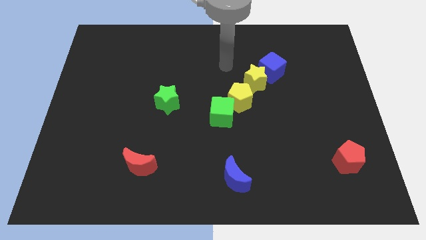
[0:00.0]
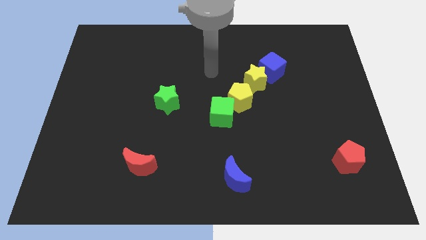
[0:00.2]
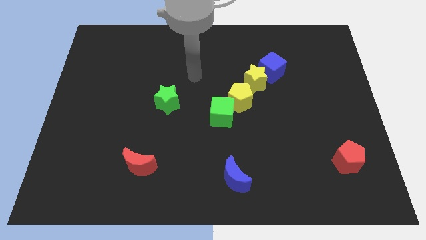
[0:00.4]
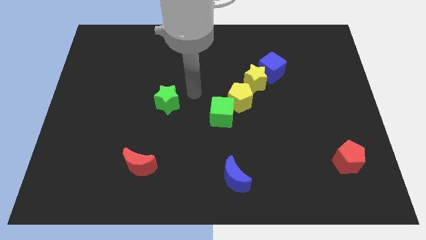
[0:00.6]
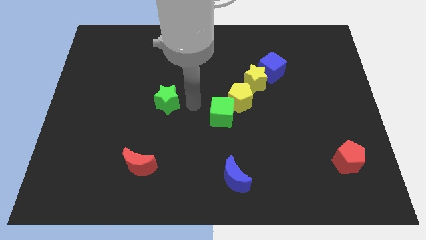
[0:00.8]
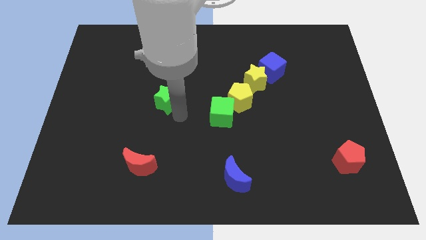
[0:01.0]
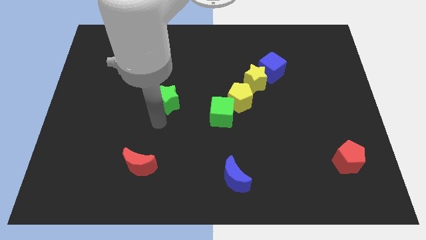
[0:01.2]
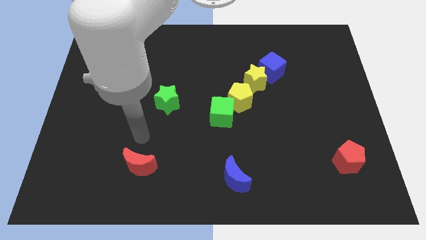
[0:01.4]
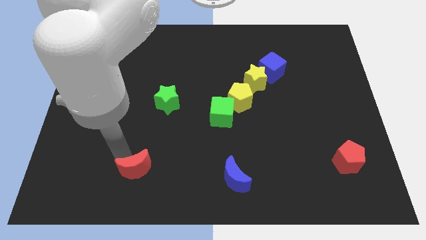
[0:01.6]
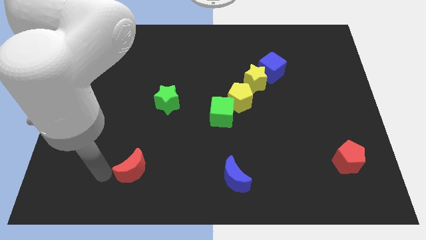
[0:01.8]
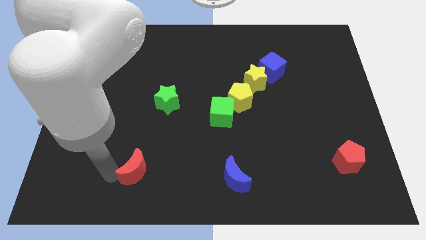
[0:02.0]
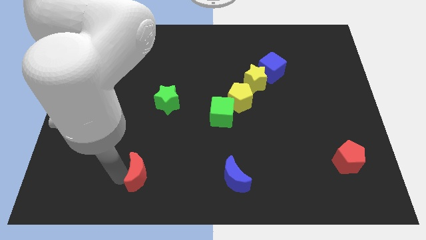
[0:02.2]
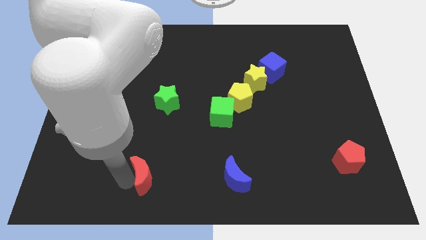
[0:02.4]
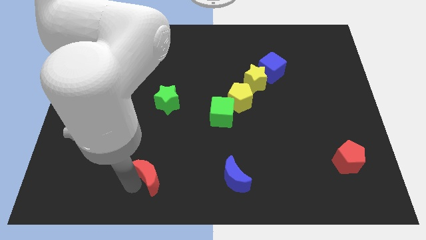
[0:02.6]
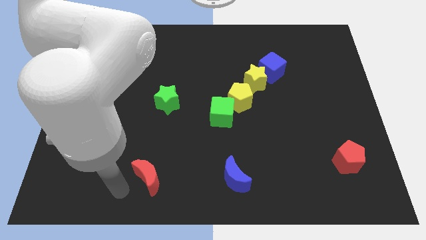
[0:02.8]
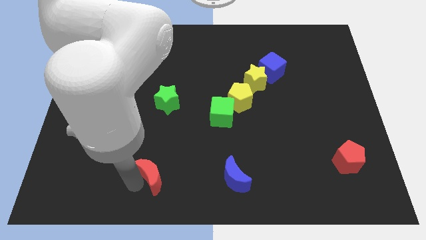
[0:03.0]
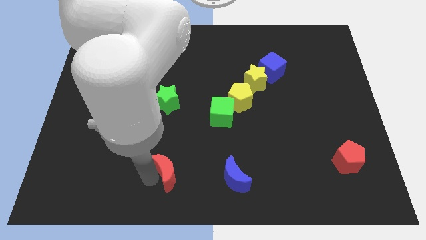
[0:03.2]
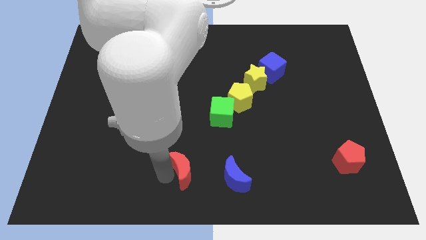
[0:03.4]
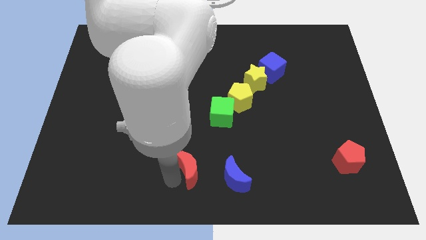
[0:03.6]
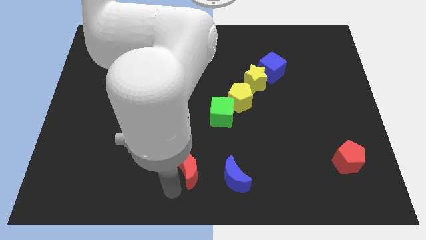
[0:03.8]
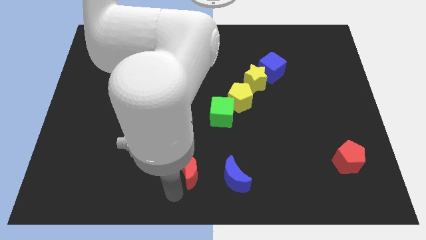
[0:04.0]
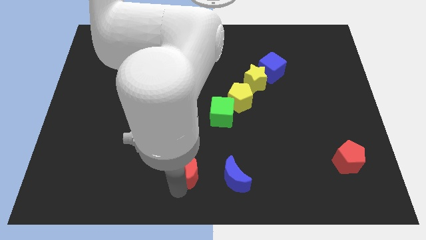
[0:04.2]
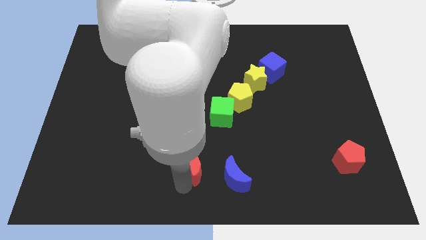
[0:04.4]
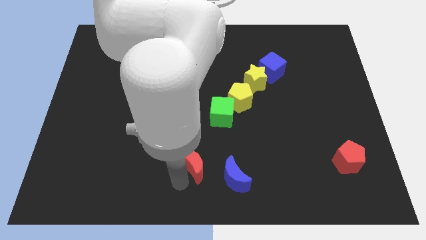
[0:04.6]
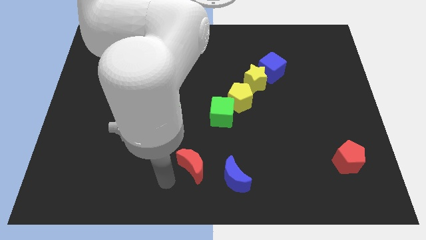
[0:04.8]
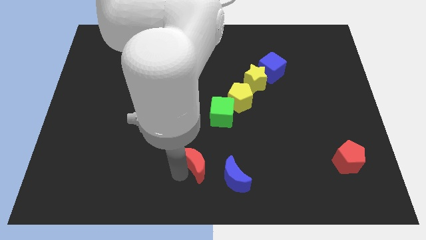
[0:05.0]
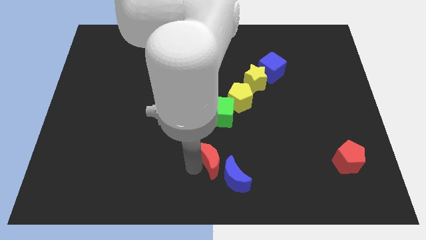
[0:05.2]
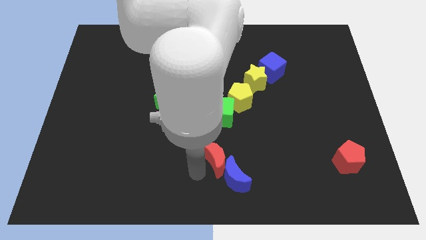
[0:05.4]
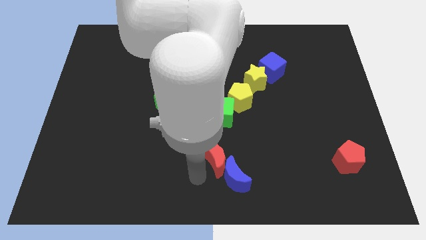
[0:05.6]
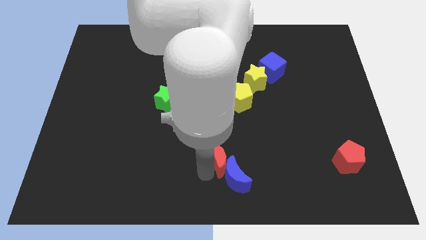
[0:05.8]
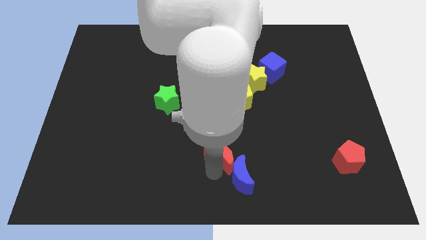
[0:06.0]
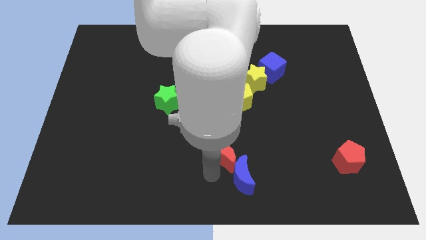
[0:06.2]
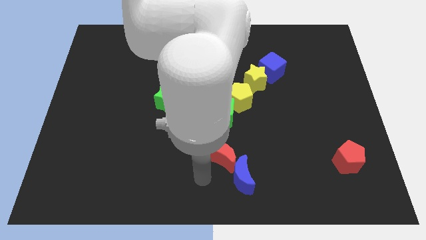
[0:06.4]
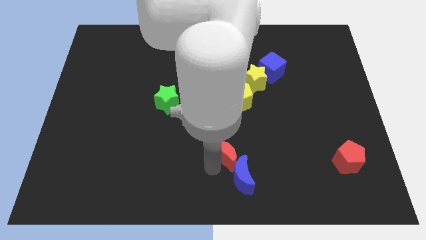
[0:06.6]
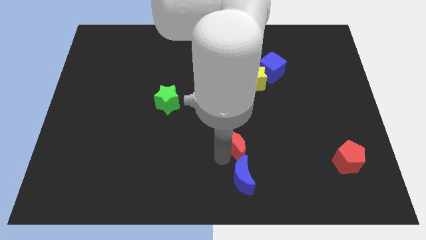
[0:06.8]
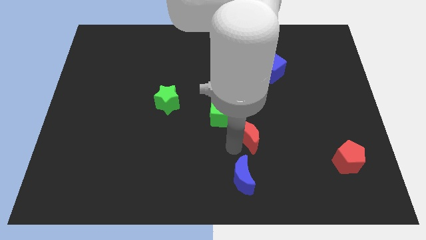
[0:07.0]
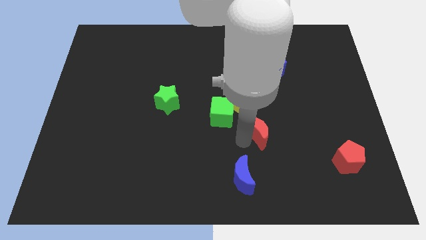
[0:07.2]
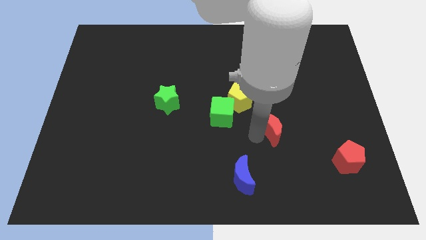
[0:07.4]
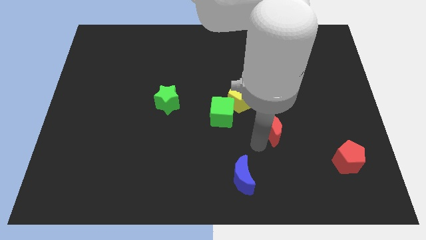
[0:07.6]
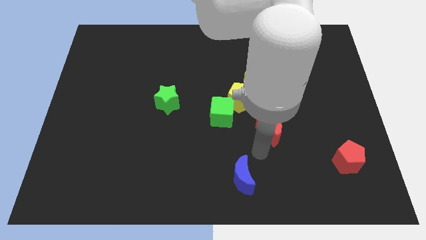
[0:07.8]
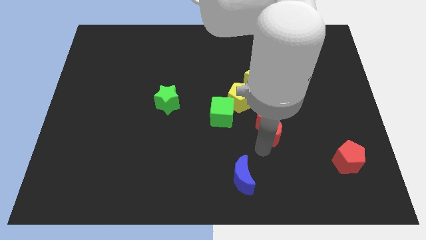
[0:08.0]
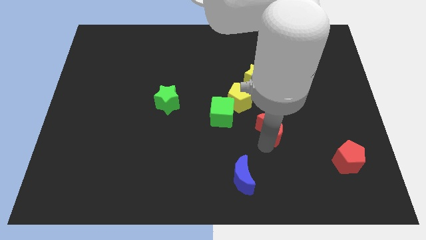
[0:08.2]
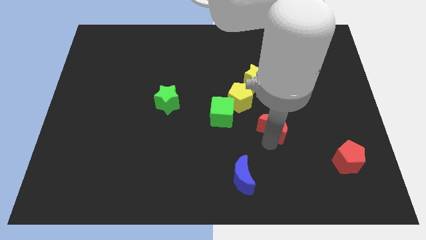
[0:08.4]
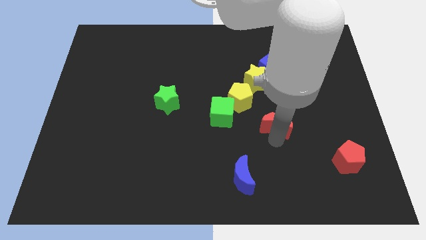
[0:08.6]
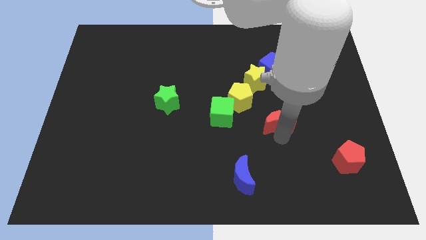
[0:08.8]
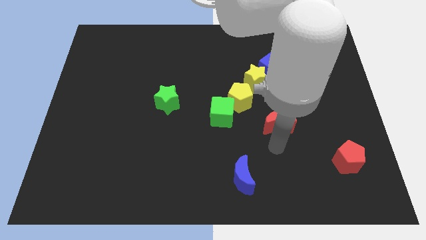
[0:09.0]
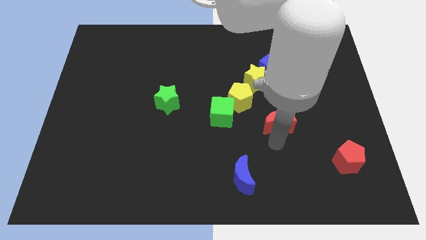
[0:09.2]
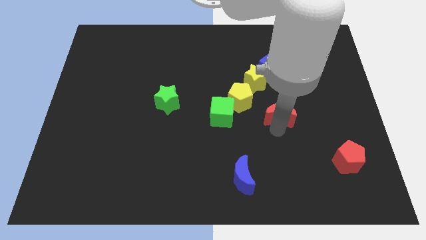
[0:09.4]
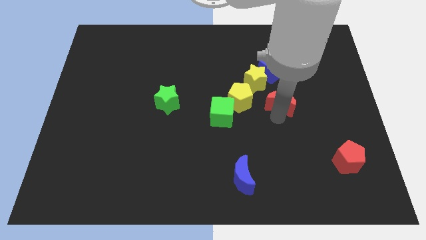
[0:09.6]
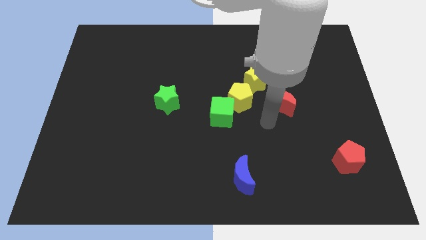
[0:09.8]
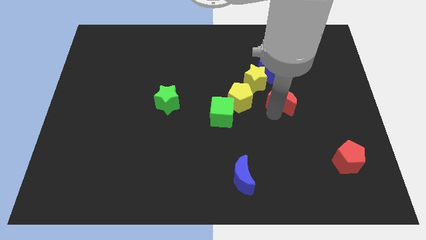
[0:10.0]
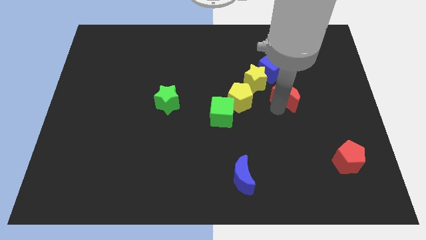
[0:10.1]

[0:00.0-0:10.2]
push the red moon to the bottom right of the blue cube

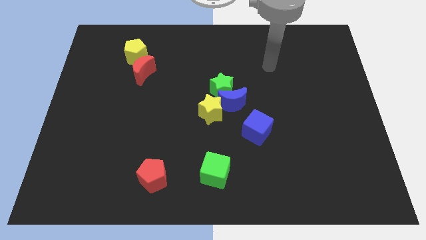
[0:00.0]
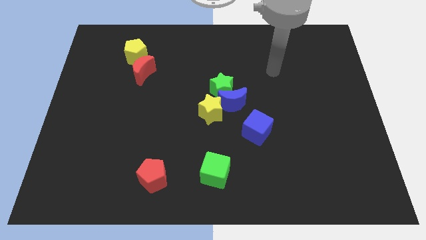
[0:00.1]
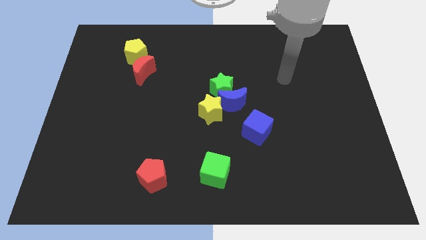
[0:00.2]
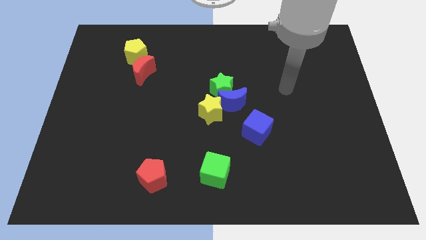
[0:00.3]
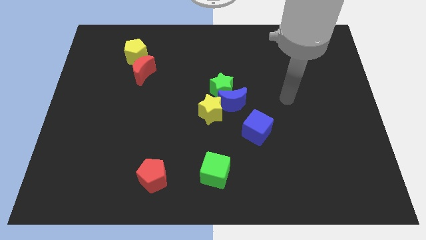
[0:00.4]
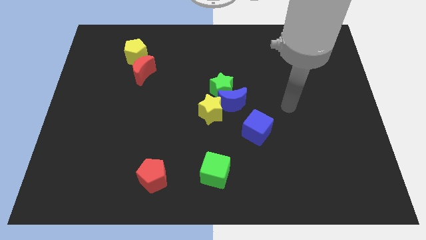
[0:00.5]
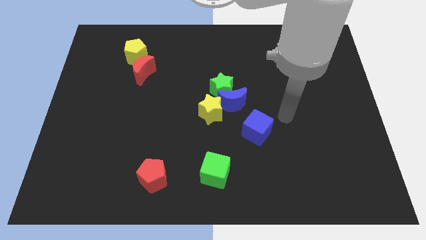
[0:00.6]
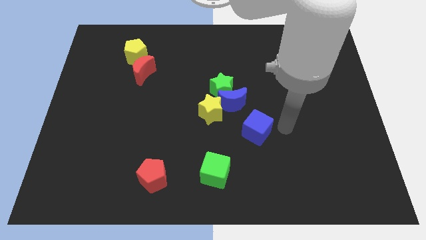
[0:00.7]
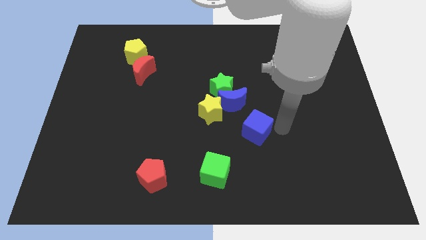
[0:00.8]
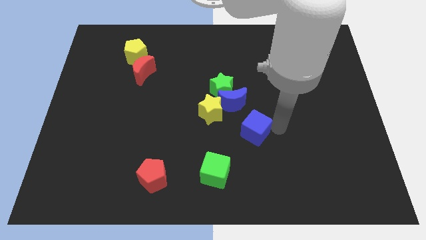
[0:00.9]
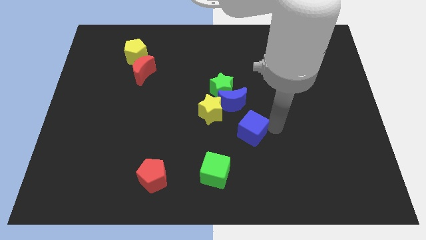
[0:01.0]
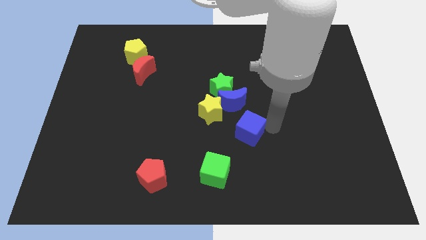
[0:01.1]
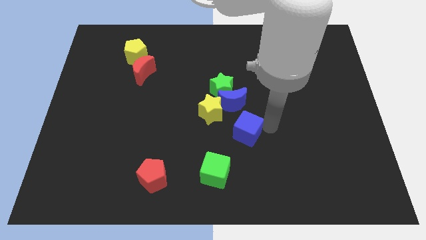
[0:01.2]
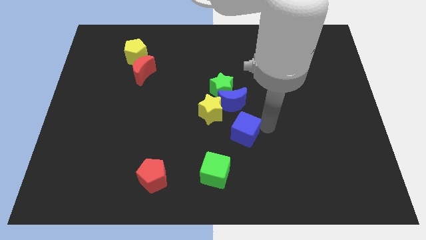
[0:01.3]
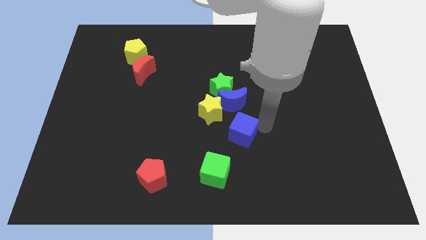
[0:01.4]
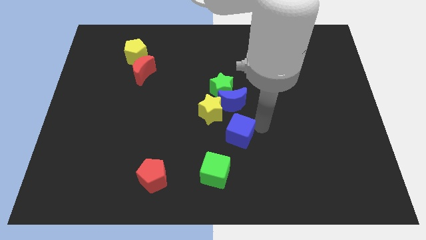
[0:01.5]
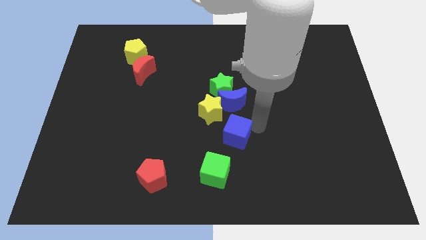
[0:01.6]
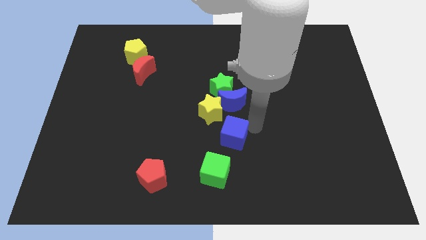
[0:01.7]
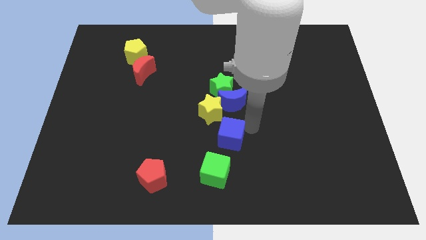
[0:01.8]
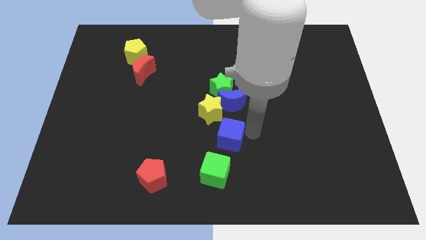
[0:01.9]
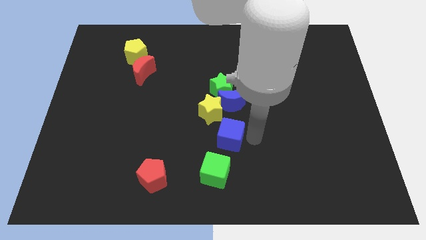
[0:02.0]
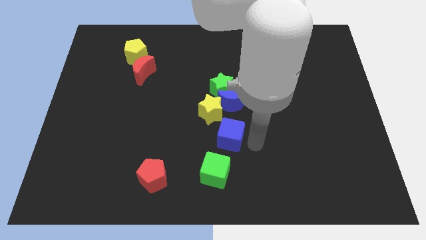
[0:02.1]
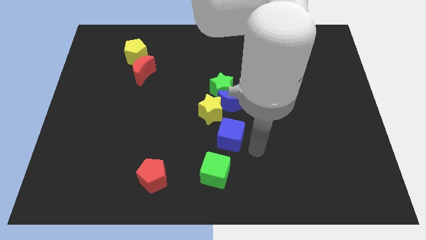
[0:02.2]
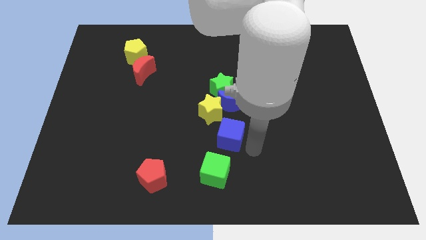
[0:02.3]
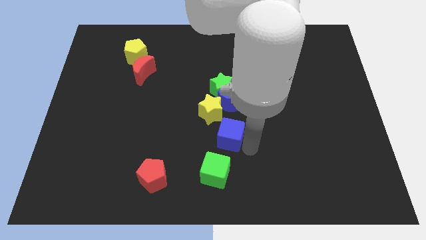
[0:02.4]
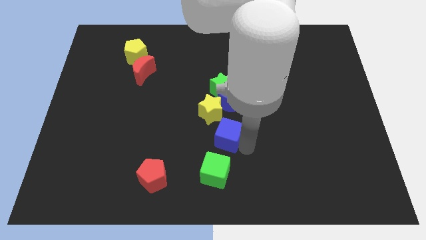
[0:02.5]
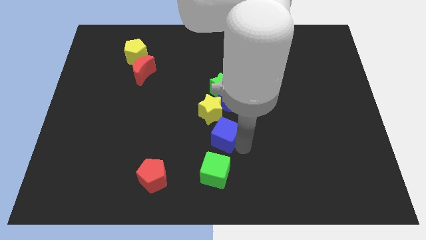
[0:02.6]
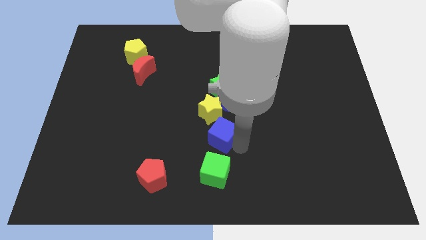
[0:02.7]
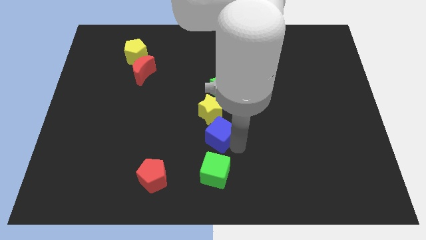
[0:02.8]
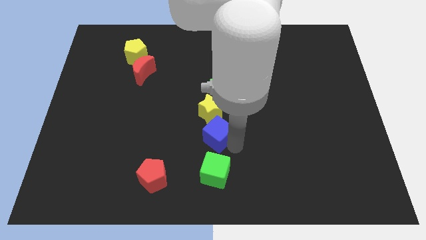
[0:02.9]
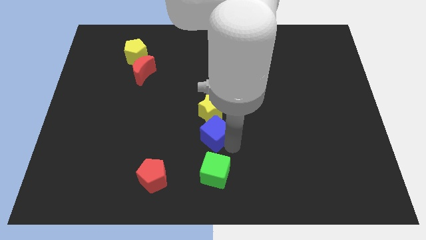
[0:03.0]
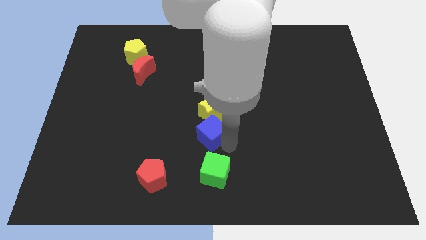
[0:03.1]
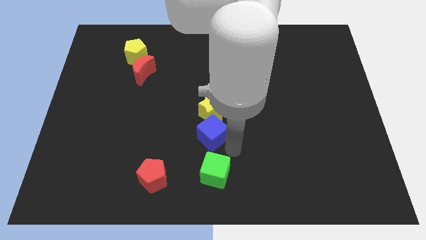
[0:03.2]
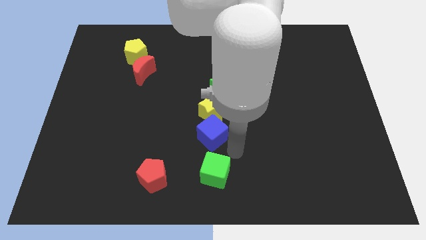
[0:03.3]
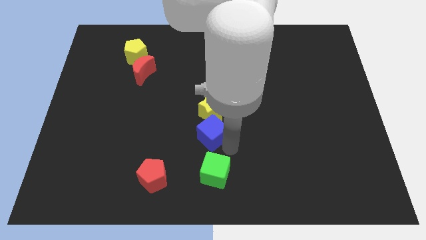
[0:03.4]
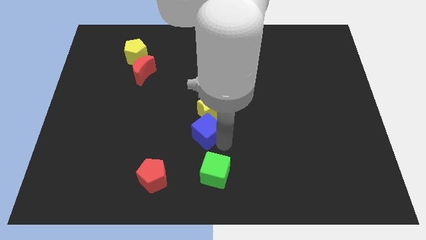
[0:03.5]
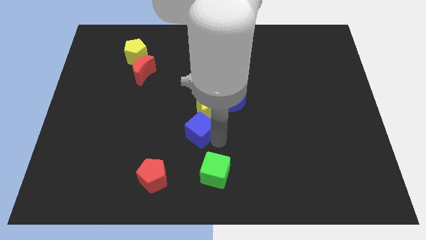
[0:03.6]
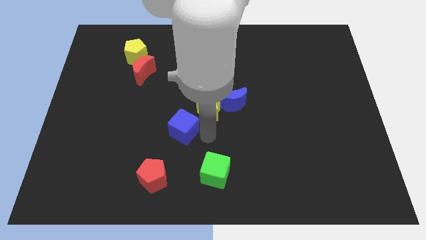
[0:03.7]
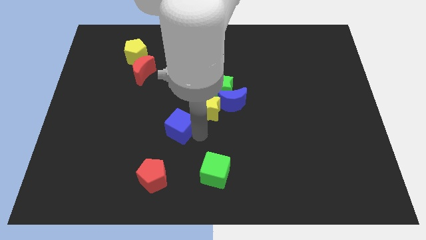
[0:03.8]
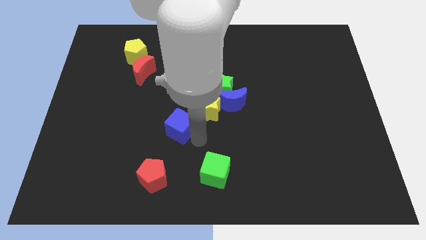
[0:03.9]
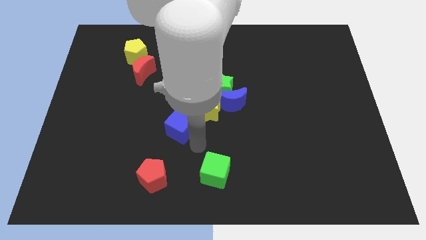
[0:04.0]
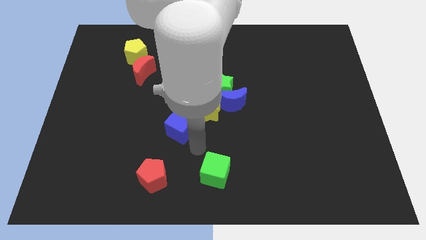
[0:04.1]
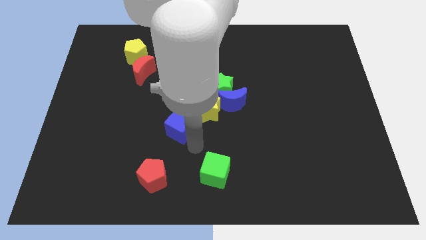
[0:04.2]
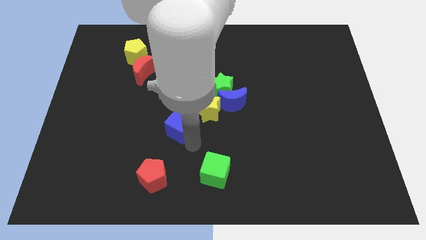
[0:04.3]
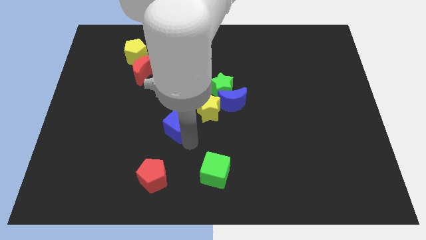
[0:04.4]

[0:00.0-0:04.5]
move the blue cube to the left of the yellow star
